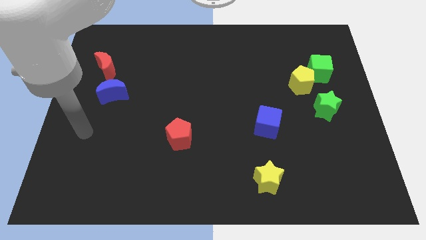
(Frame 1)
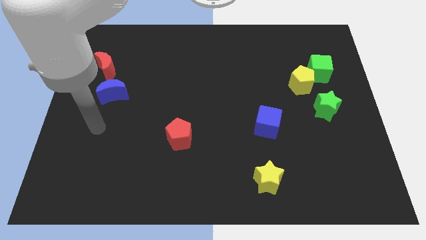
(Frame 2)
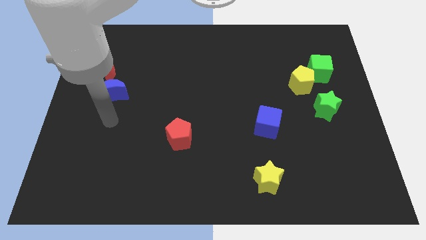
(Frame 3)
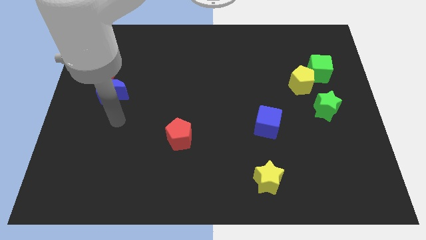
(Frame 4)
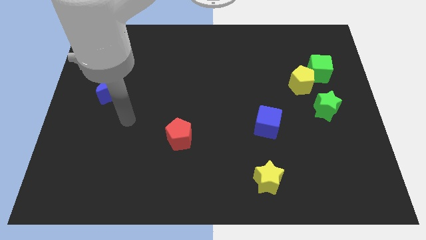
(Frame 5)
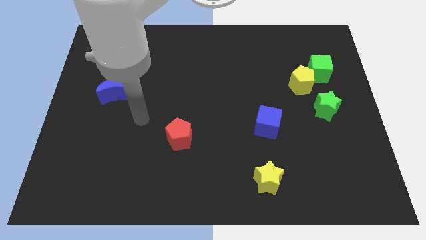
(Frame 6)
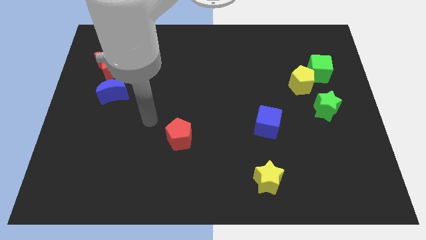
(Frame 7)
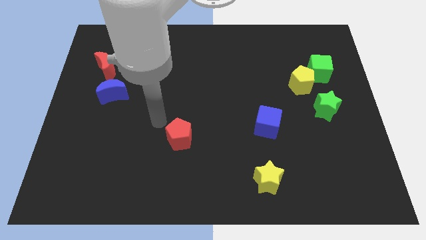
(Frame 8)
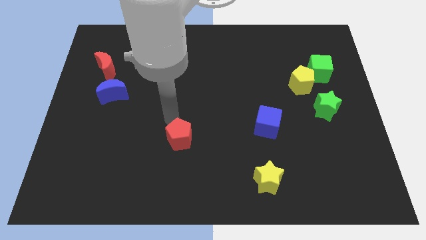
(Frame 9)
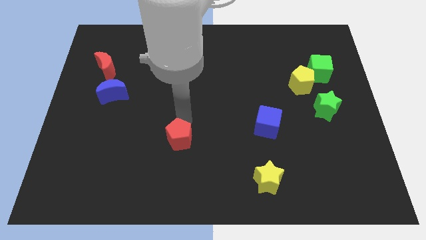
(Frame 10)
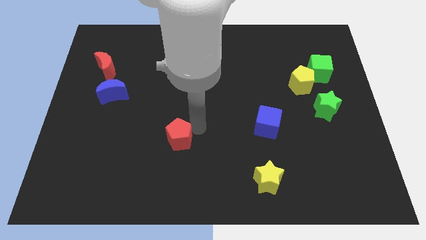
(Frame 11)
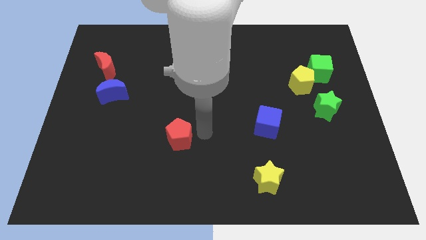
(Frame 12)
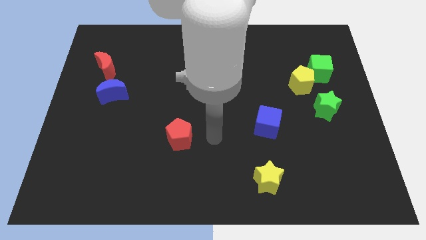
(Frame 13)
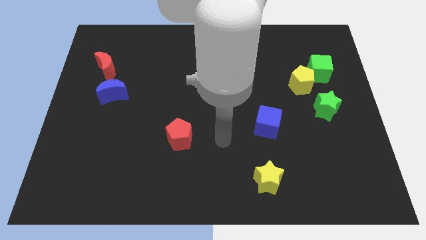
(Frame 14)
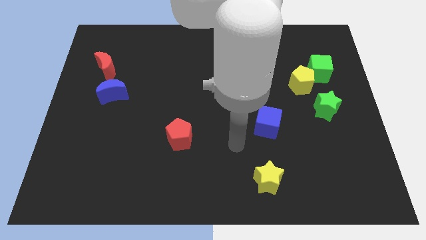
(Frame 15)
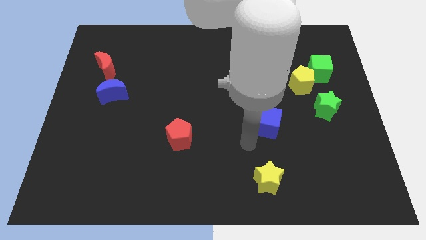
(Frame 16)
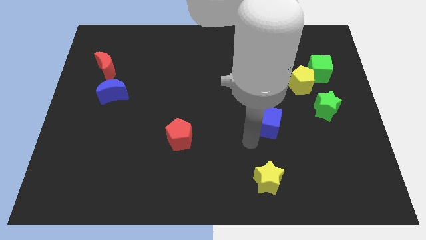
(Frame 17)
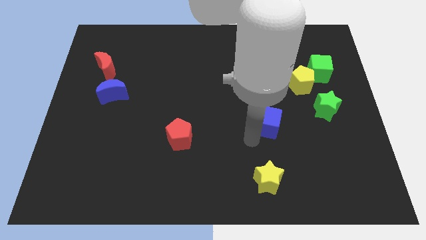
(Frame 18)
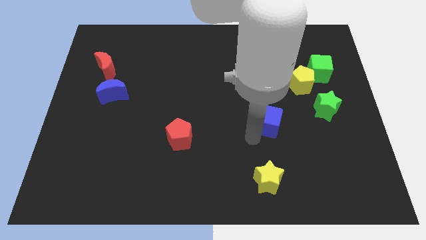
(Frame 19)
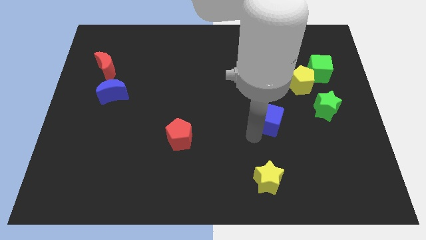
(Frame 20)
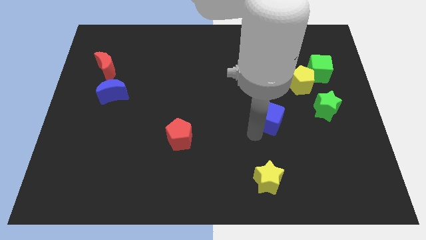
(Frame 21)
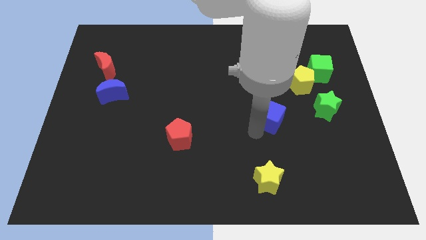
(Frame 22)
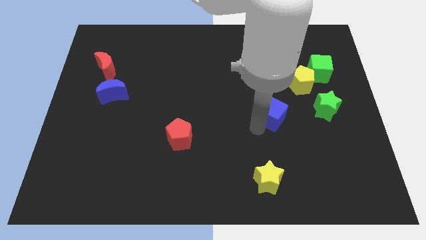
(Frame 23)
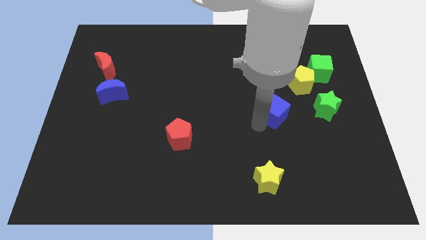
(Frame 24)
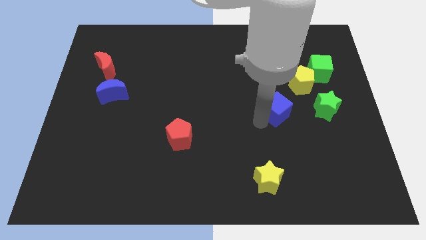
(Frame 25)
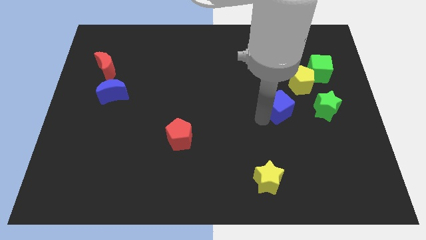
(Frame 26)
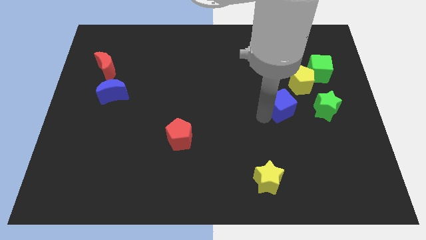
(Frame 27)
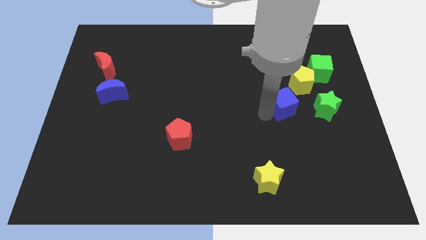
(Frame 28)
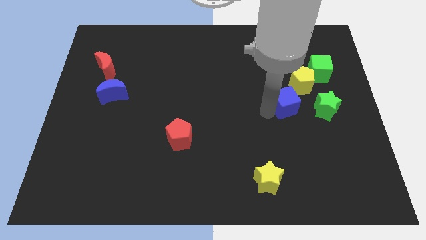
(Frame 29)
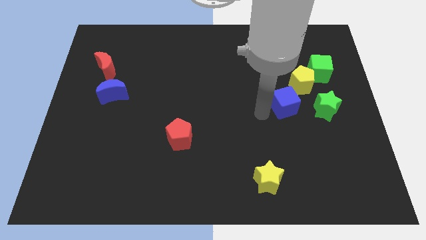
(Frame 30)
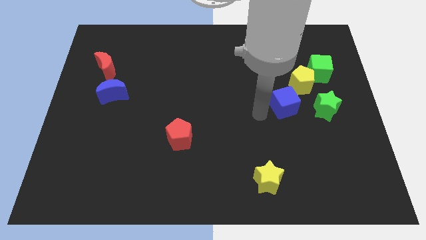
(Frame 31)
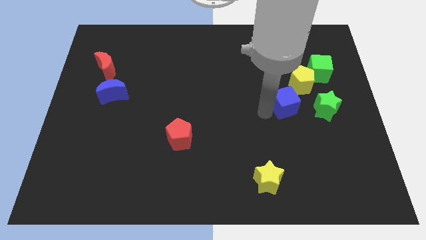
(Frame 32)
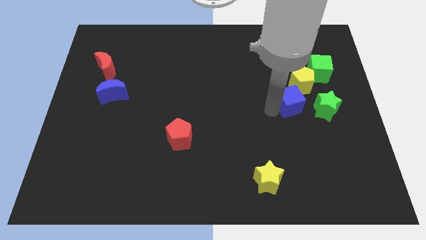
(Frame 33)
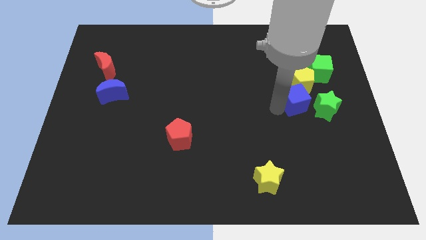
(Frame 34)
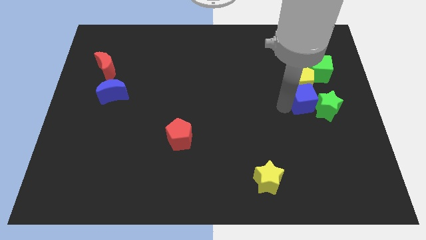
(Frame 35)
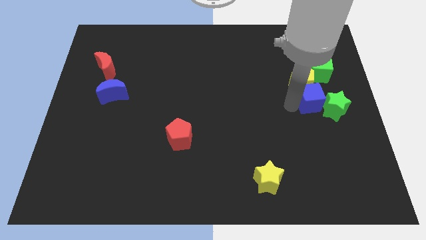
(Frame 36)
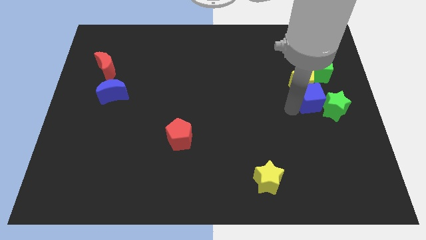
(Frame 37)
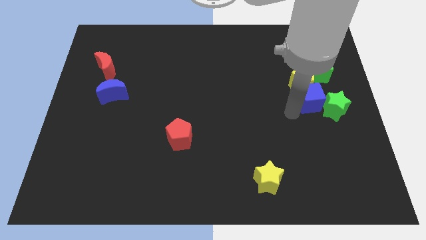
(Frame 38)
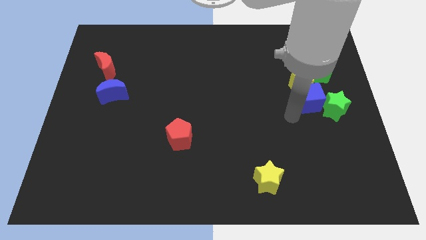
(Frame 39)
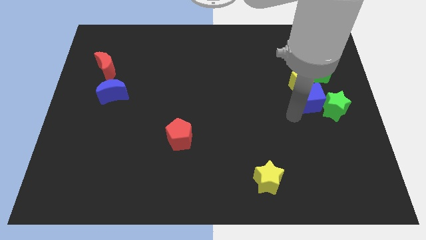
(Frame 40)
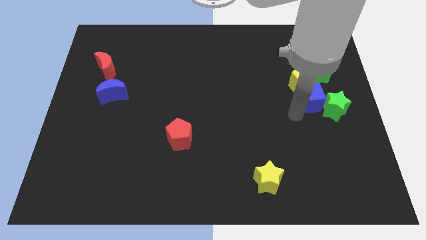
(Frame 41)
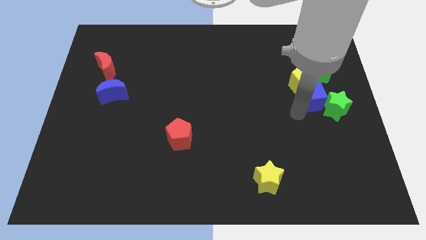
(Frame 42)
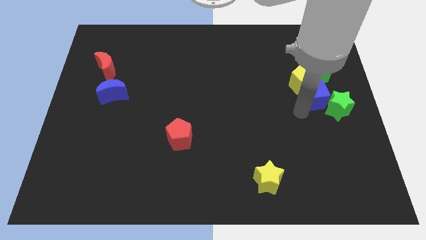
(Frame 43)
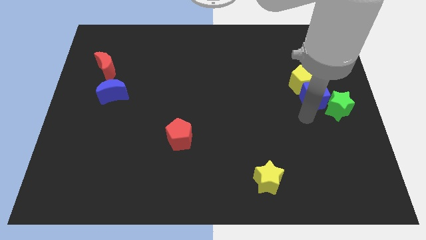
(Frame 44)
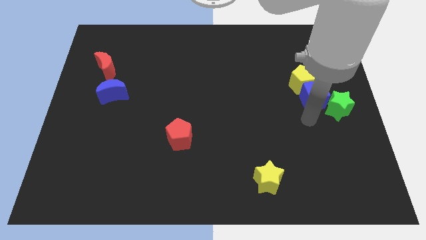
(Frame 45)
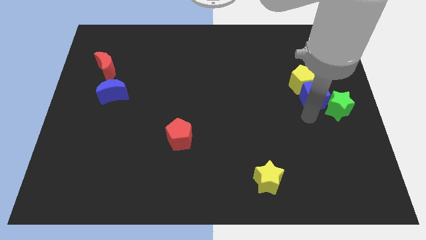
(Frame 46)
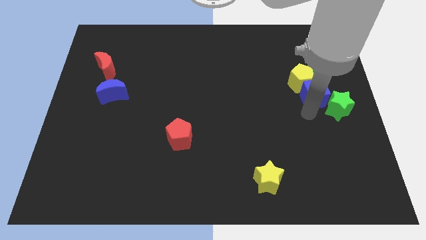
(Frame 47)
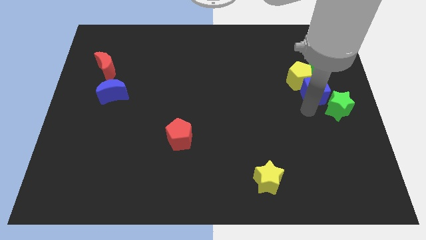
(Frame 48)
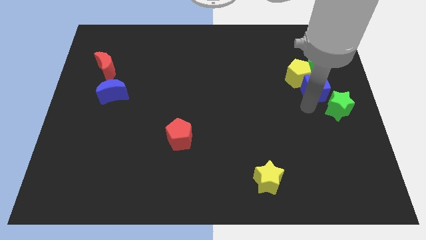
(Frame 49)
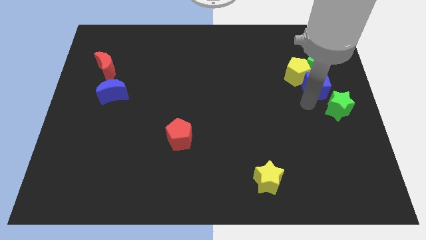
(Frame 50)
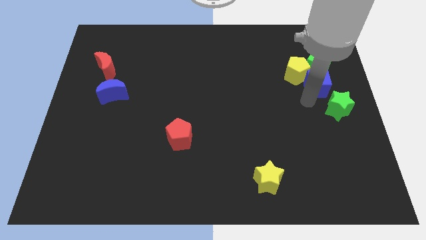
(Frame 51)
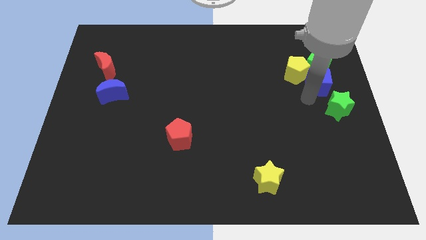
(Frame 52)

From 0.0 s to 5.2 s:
put the blue cube to the green cube

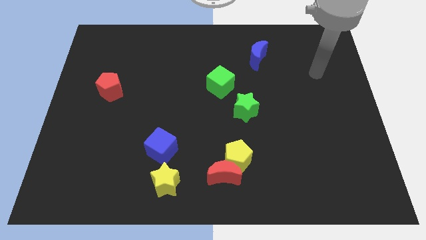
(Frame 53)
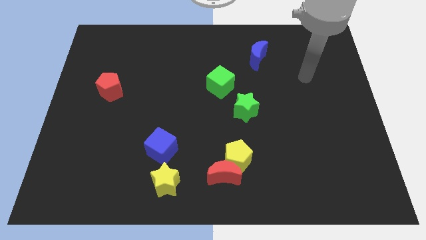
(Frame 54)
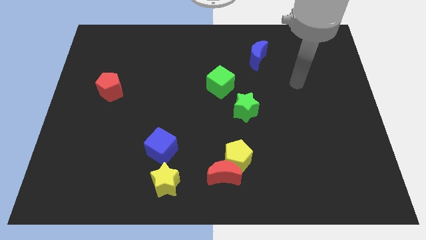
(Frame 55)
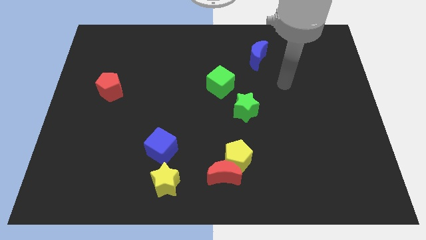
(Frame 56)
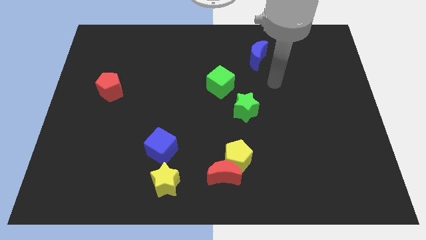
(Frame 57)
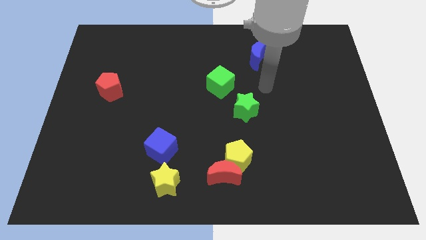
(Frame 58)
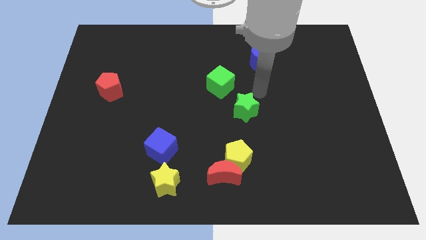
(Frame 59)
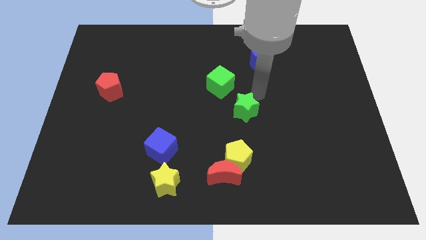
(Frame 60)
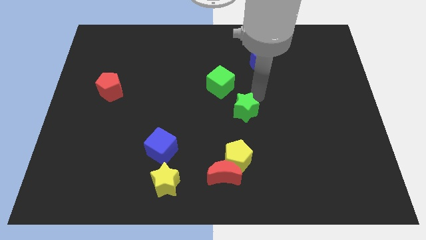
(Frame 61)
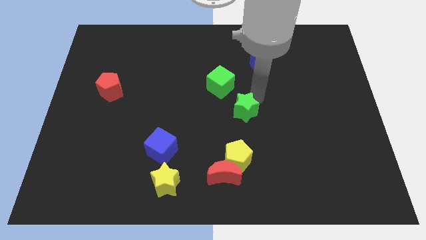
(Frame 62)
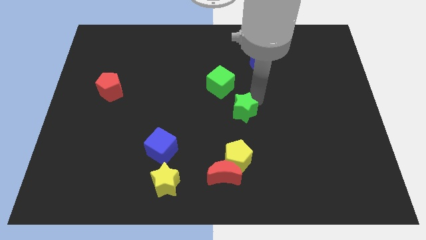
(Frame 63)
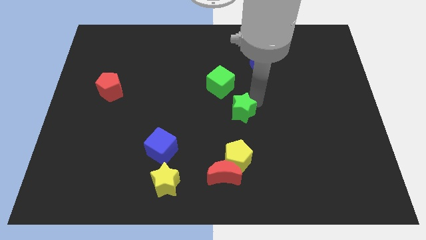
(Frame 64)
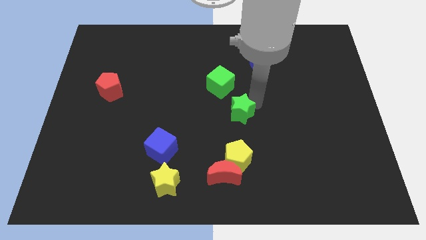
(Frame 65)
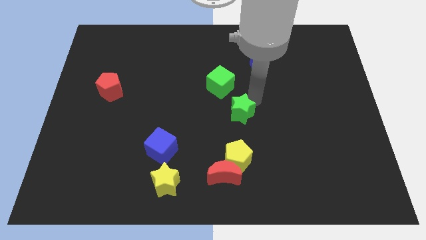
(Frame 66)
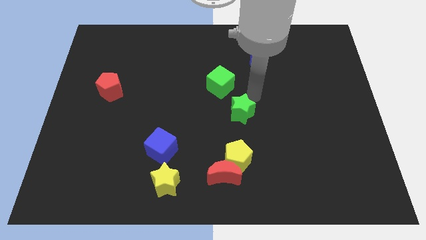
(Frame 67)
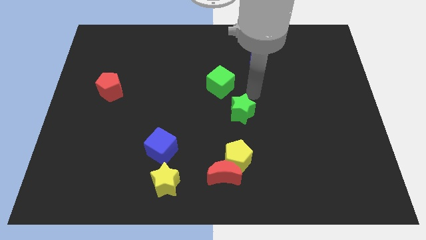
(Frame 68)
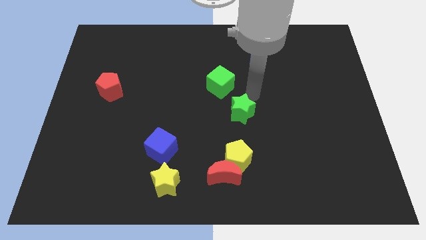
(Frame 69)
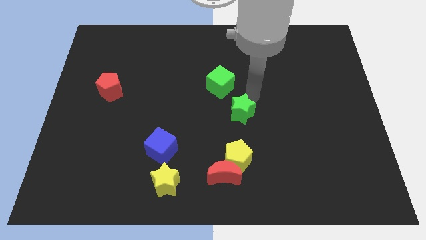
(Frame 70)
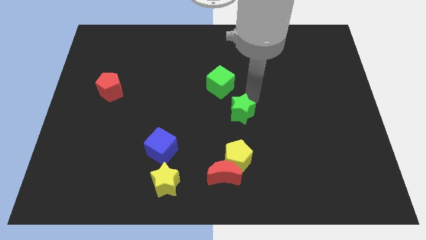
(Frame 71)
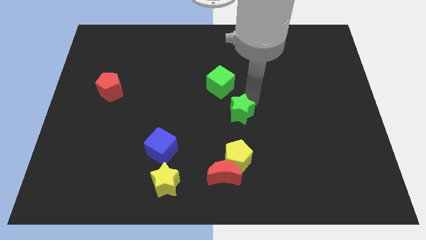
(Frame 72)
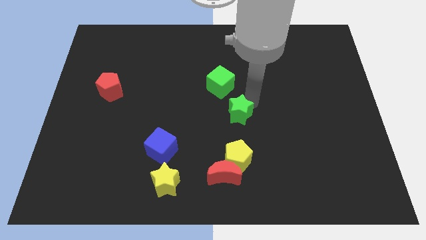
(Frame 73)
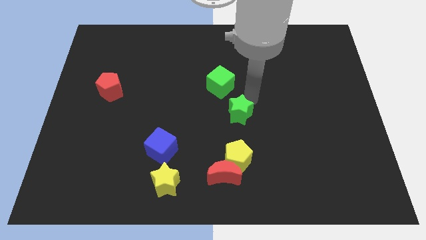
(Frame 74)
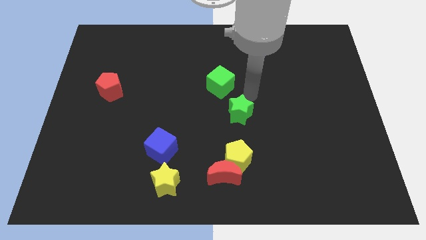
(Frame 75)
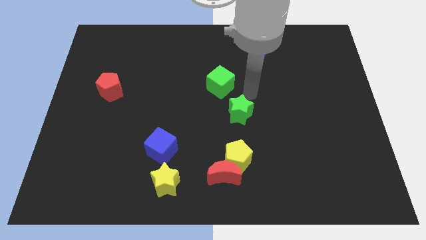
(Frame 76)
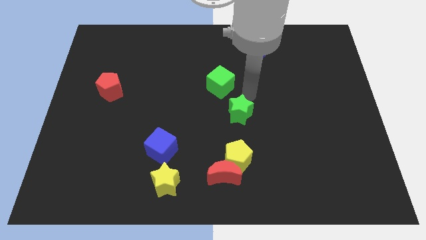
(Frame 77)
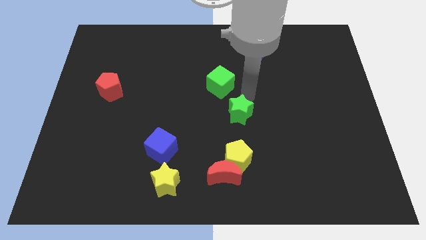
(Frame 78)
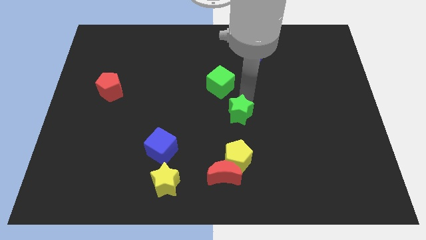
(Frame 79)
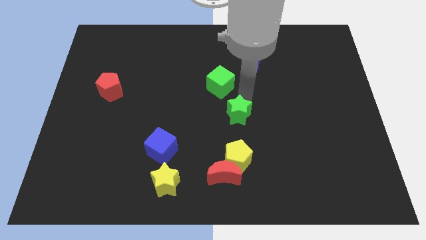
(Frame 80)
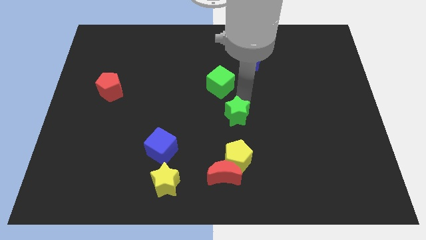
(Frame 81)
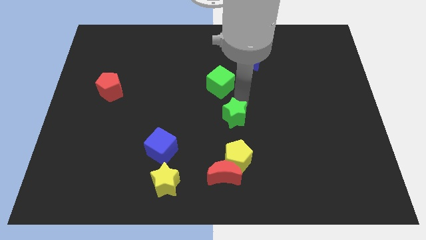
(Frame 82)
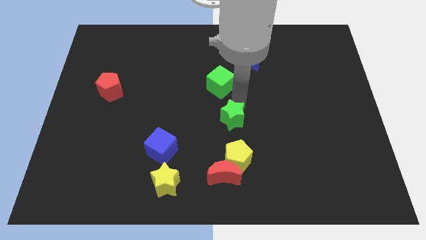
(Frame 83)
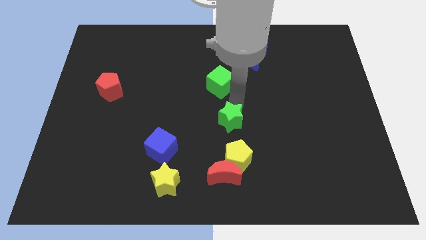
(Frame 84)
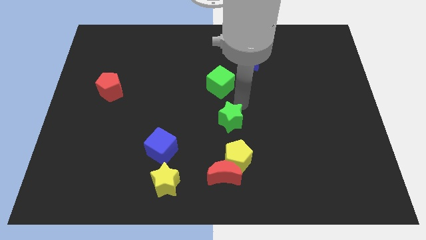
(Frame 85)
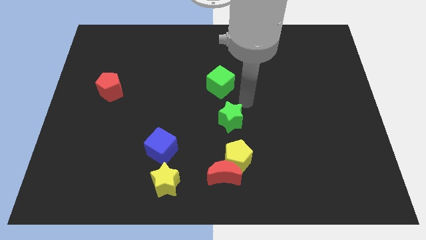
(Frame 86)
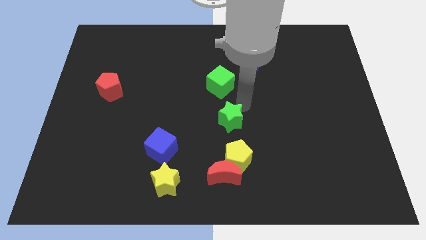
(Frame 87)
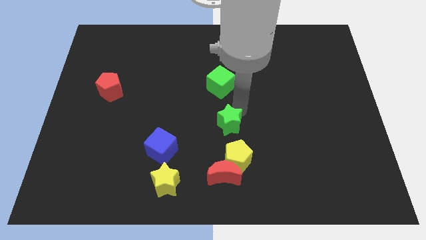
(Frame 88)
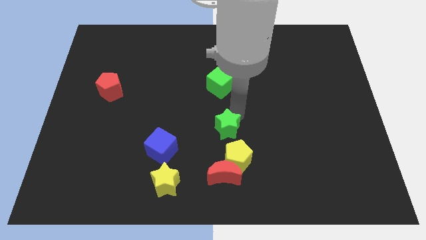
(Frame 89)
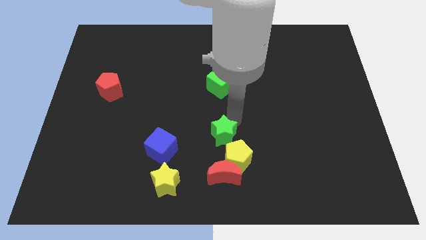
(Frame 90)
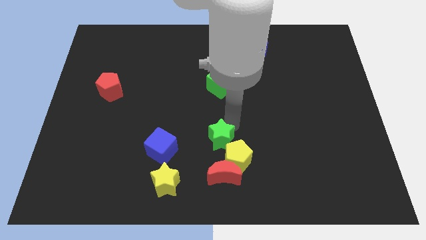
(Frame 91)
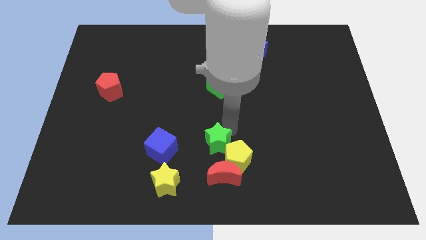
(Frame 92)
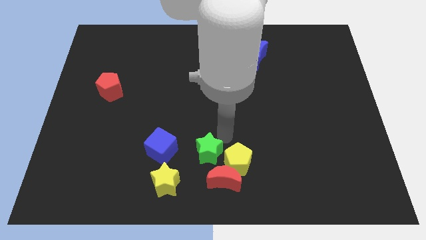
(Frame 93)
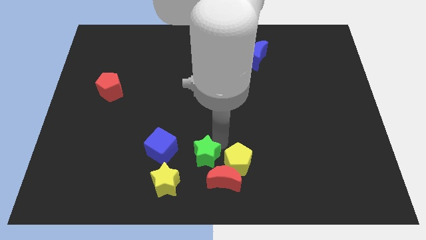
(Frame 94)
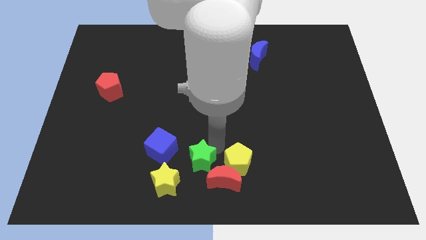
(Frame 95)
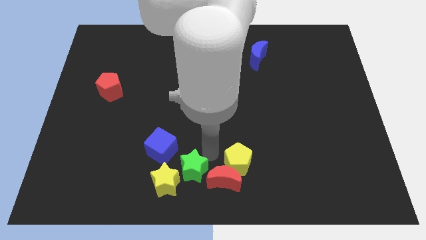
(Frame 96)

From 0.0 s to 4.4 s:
put the green star next to the yellow star
